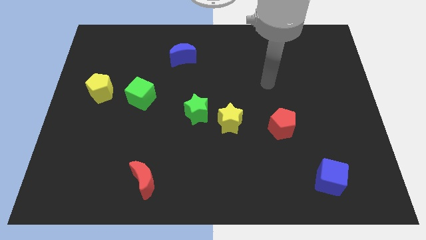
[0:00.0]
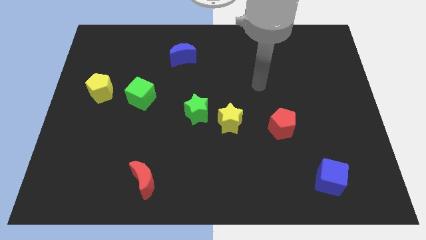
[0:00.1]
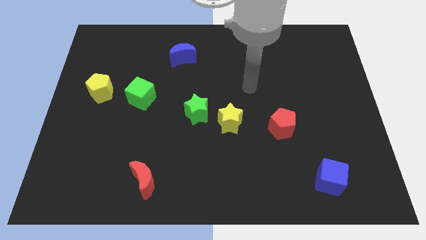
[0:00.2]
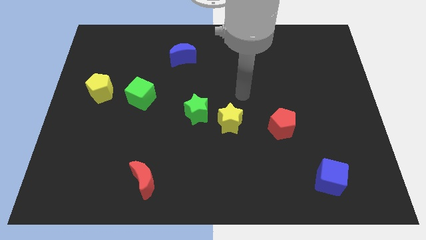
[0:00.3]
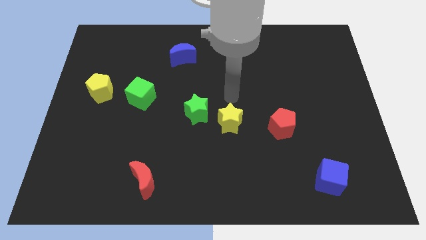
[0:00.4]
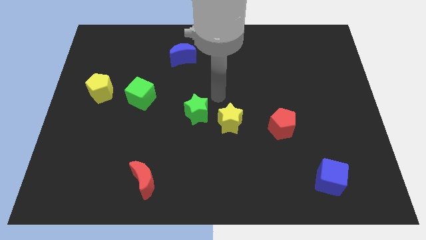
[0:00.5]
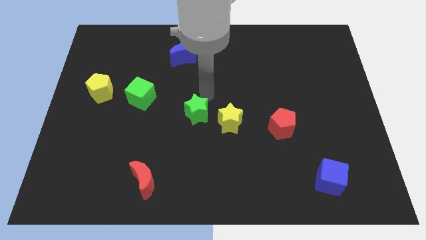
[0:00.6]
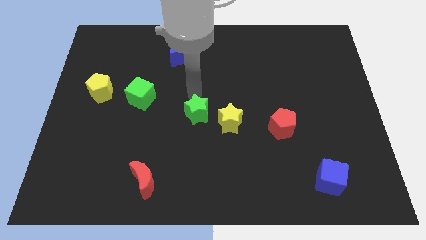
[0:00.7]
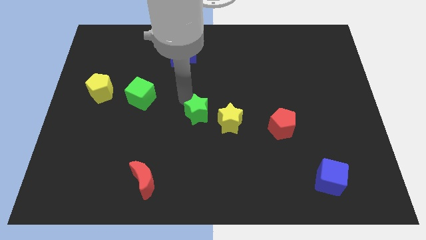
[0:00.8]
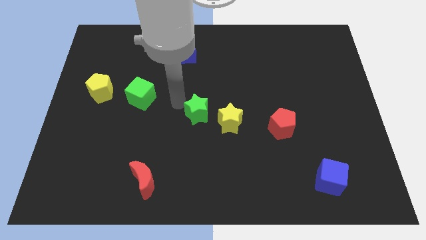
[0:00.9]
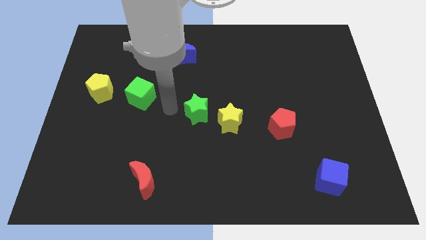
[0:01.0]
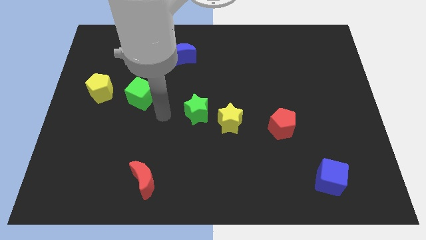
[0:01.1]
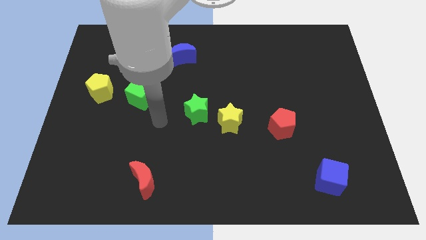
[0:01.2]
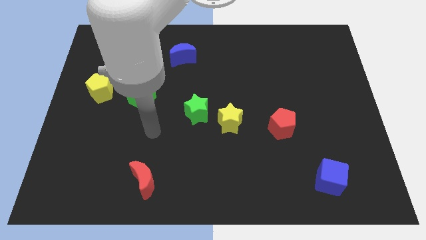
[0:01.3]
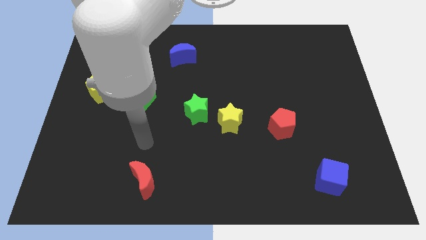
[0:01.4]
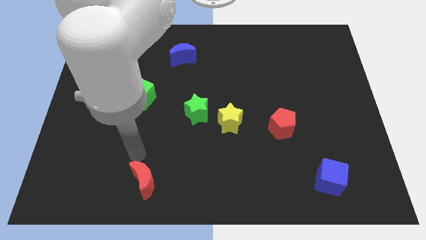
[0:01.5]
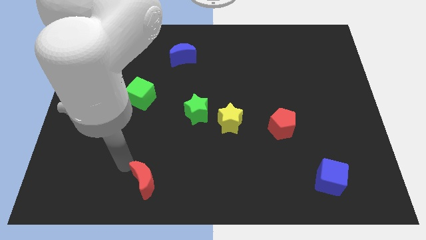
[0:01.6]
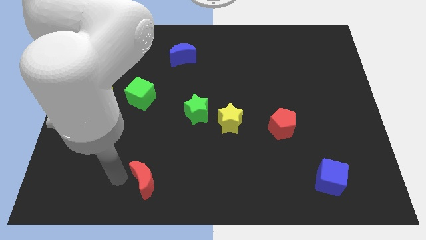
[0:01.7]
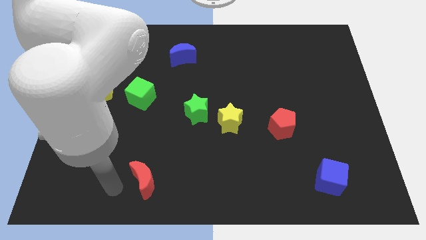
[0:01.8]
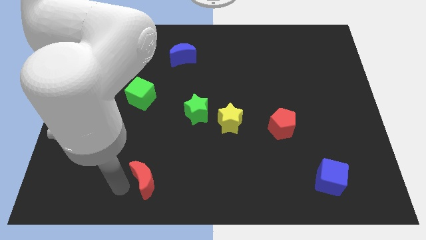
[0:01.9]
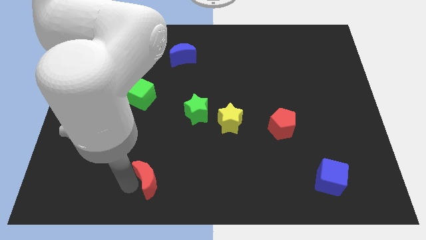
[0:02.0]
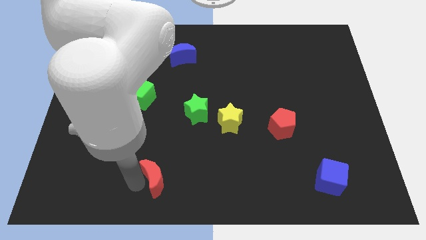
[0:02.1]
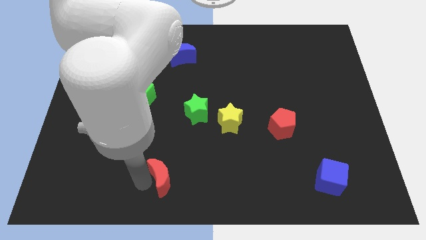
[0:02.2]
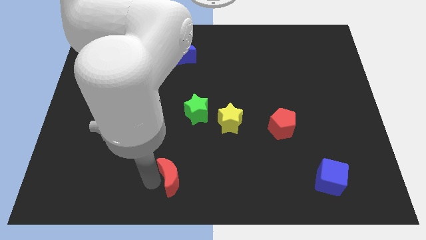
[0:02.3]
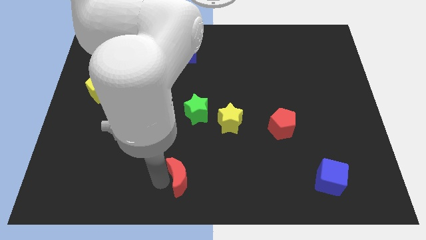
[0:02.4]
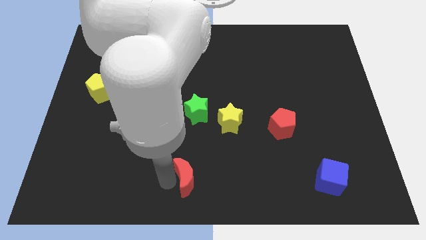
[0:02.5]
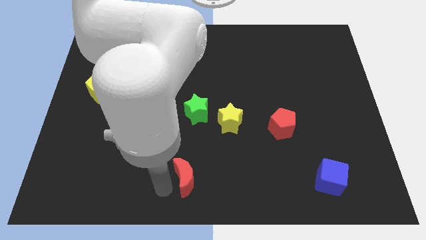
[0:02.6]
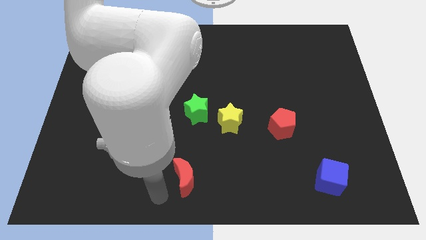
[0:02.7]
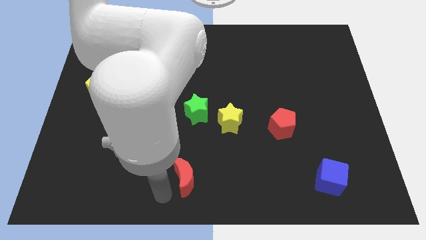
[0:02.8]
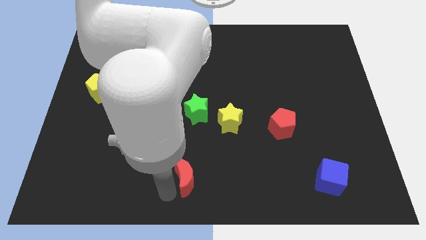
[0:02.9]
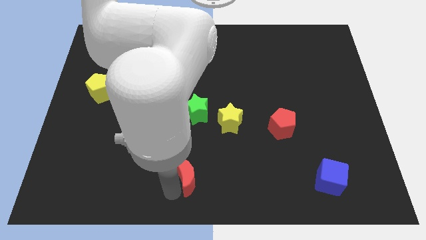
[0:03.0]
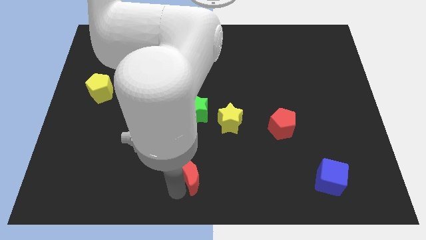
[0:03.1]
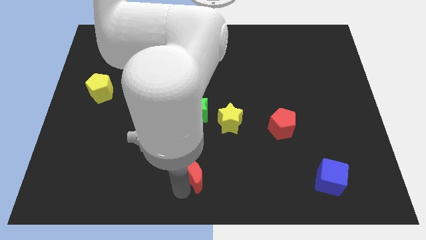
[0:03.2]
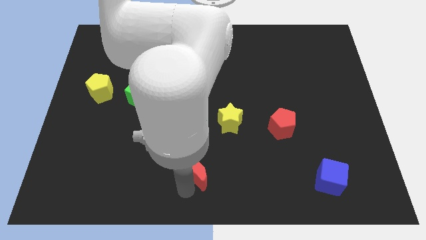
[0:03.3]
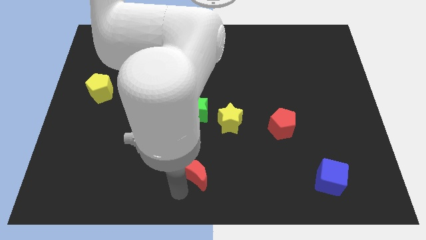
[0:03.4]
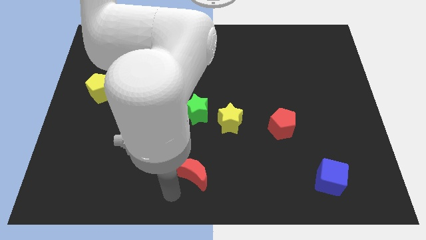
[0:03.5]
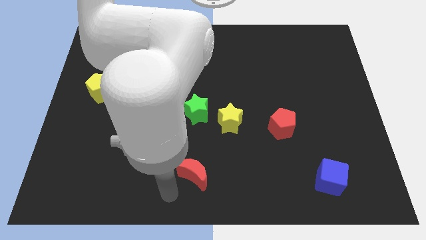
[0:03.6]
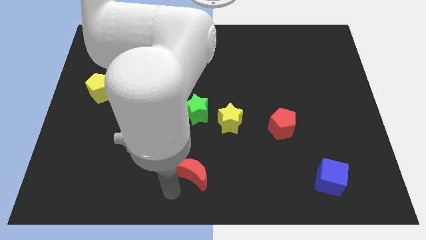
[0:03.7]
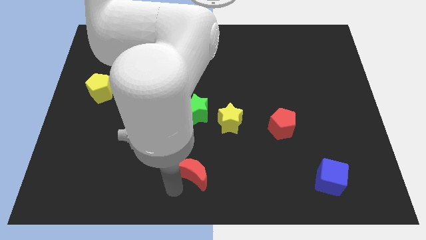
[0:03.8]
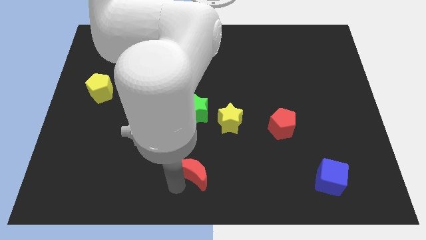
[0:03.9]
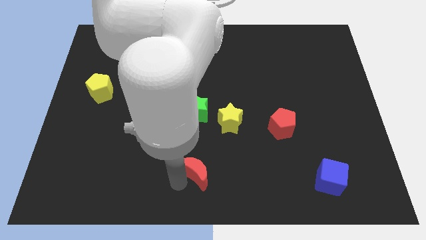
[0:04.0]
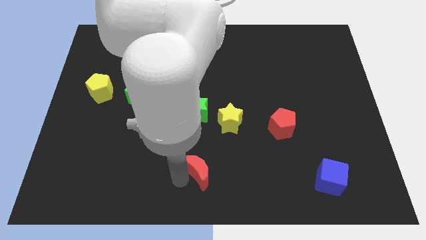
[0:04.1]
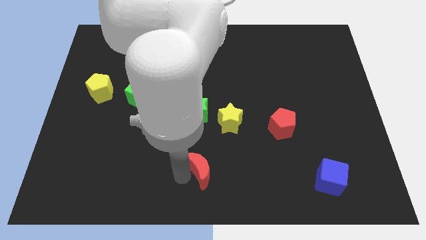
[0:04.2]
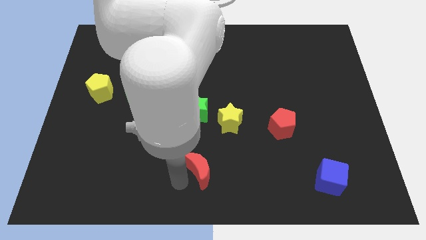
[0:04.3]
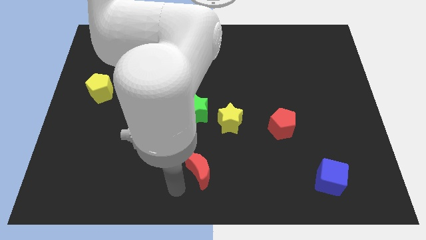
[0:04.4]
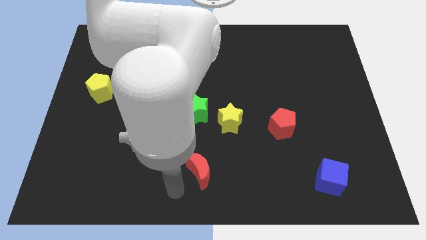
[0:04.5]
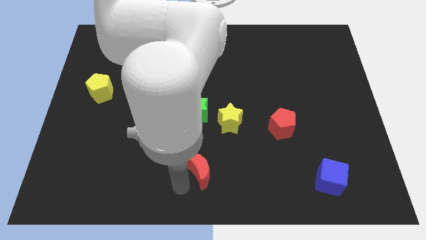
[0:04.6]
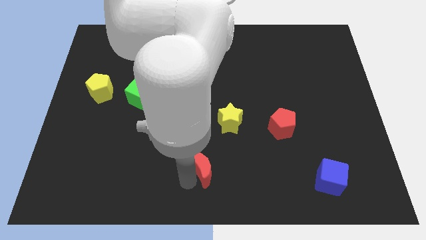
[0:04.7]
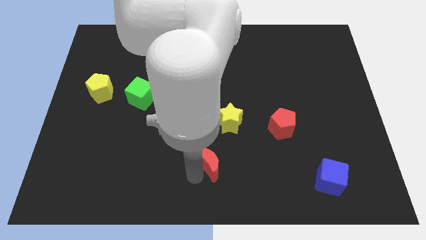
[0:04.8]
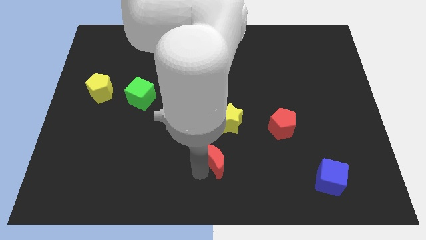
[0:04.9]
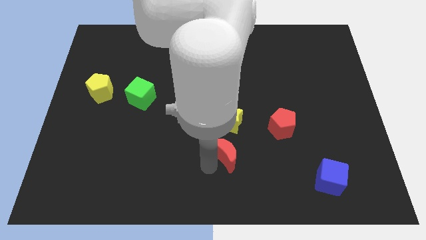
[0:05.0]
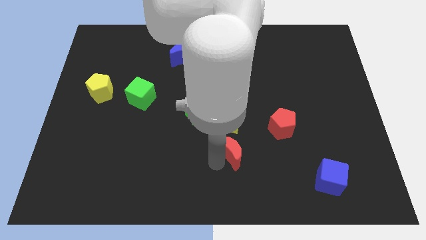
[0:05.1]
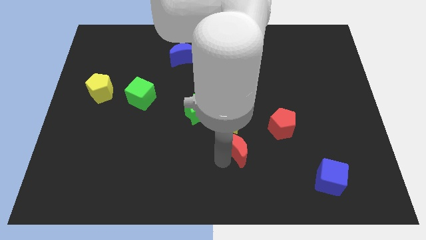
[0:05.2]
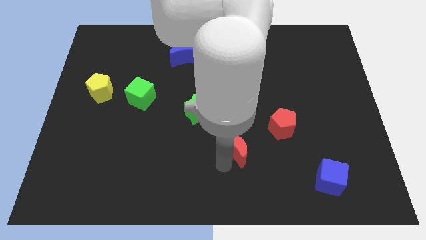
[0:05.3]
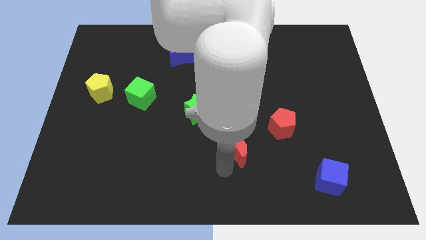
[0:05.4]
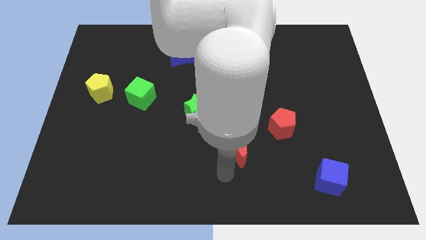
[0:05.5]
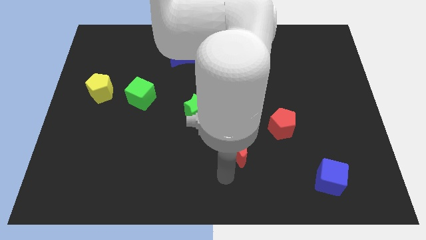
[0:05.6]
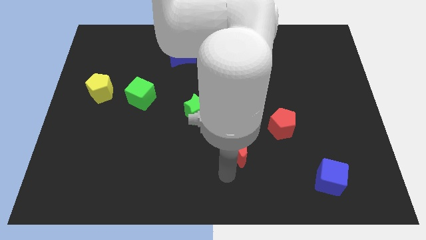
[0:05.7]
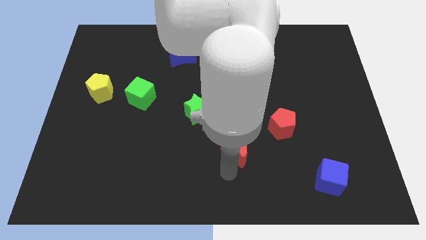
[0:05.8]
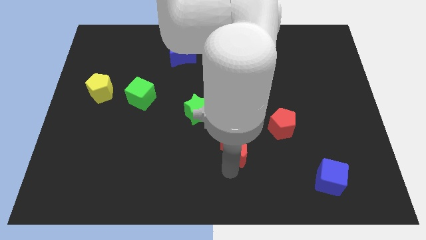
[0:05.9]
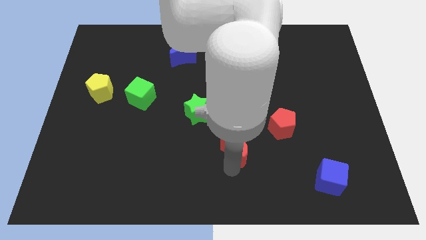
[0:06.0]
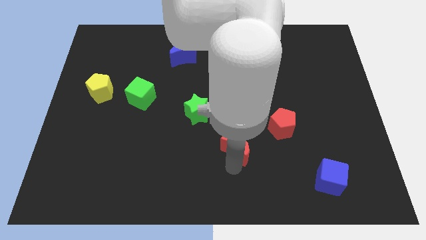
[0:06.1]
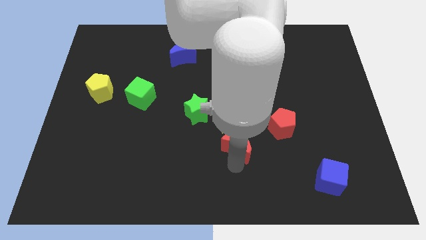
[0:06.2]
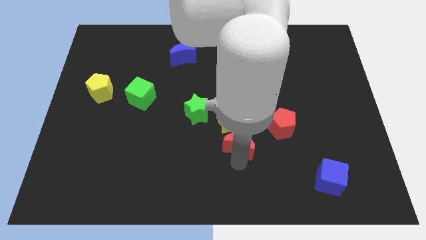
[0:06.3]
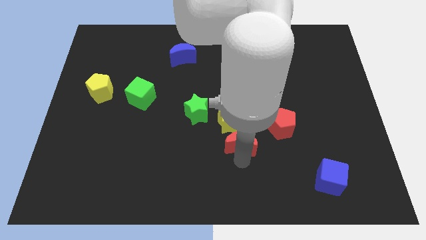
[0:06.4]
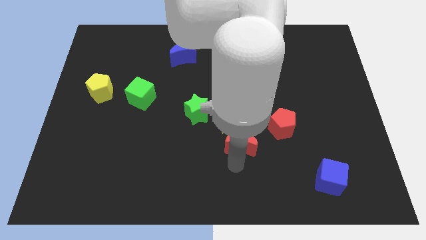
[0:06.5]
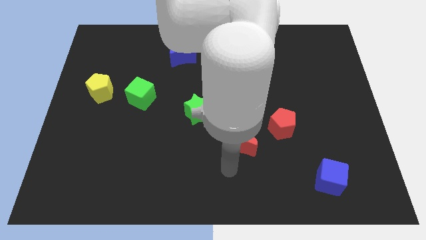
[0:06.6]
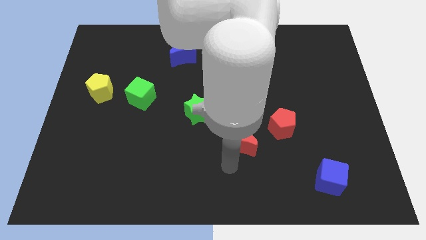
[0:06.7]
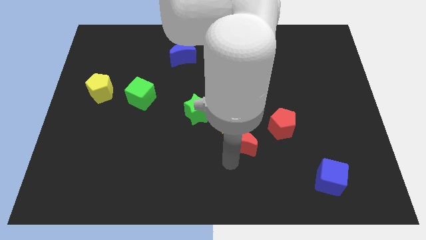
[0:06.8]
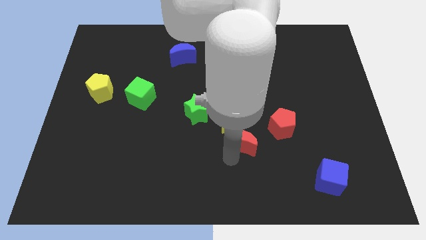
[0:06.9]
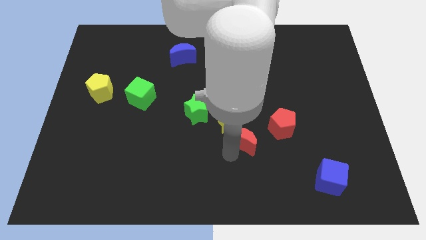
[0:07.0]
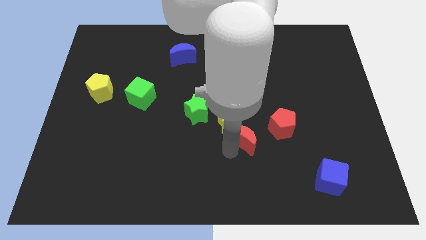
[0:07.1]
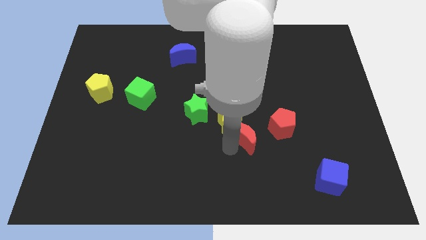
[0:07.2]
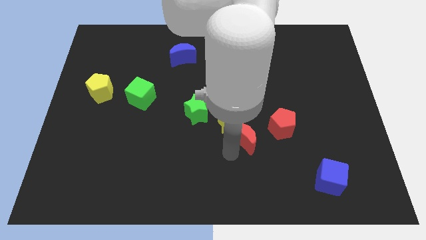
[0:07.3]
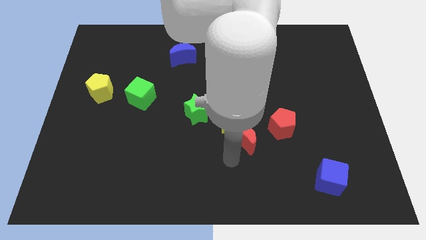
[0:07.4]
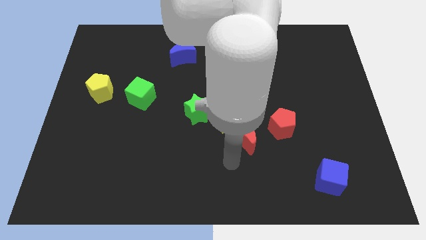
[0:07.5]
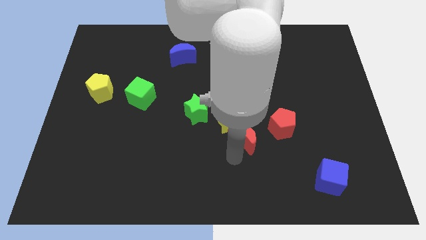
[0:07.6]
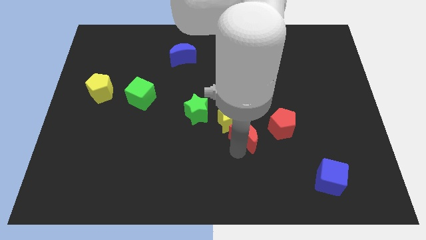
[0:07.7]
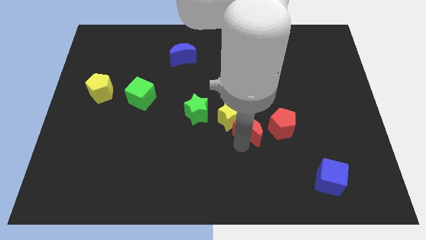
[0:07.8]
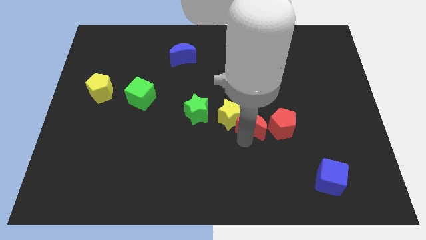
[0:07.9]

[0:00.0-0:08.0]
slide the red moon to the right side of the green star
